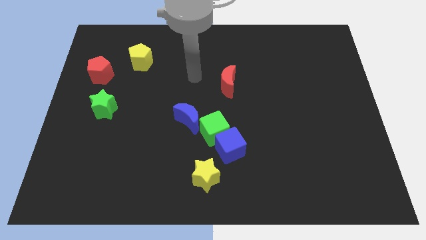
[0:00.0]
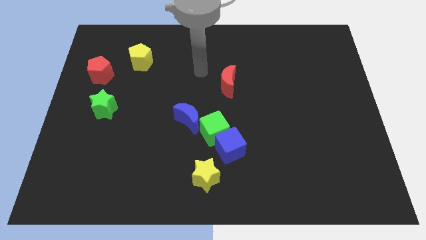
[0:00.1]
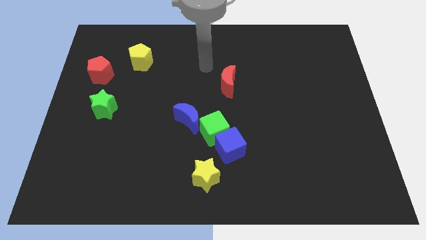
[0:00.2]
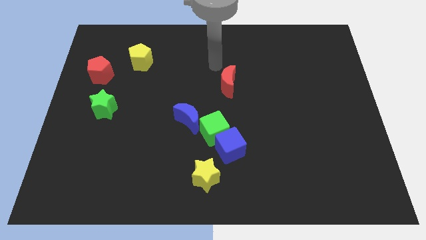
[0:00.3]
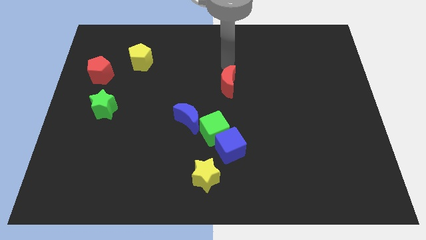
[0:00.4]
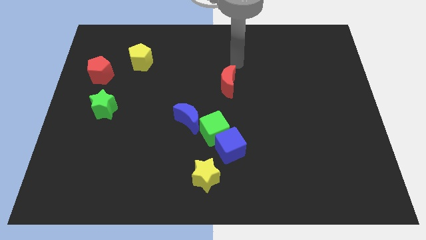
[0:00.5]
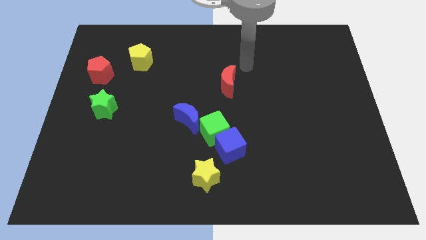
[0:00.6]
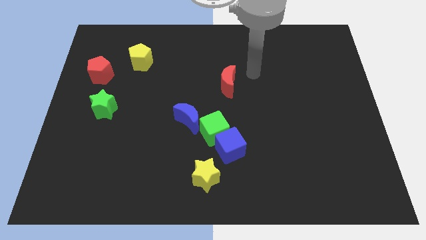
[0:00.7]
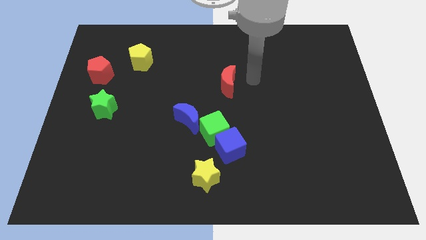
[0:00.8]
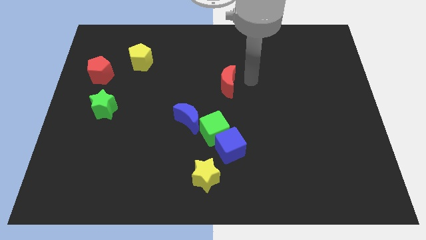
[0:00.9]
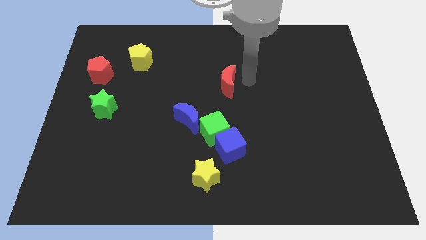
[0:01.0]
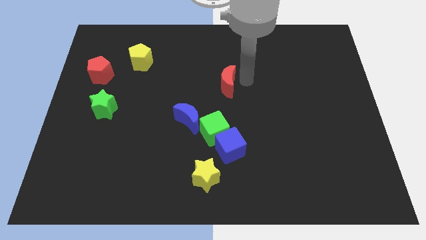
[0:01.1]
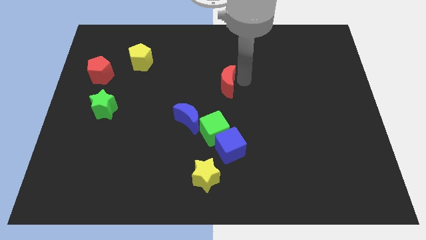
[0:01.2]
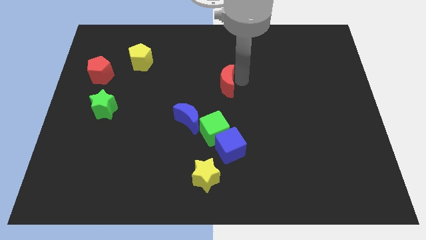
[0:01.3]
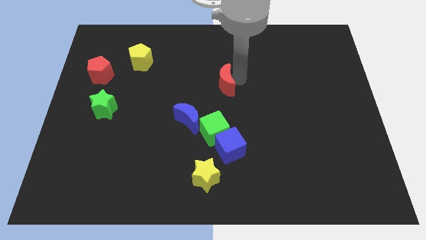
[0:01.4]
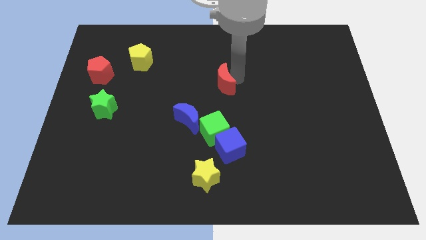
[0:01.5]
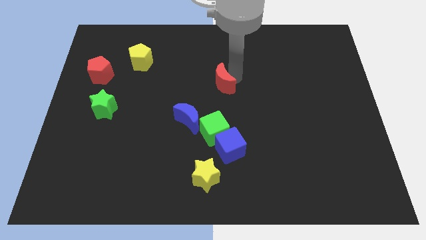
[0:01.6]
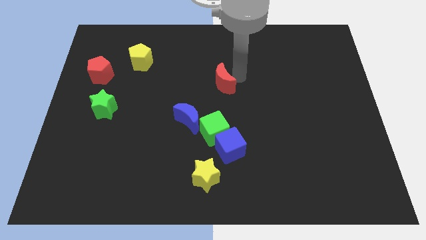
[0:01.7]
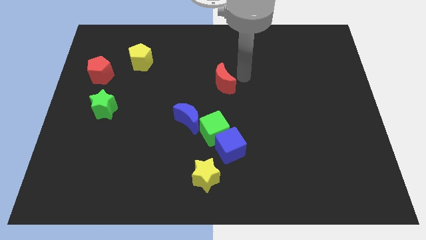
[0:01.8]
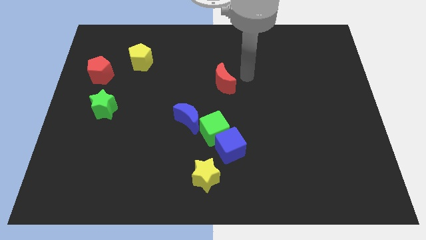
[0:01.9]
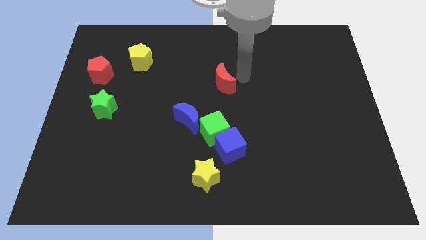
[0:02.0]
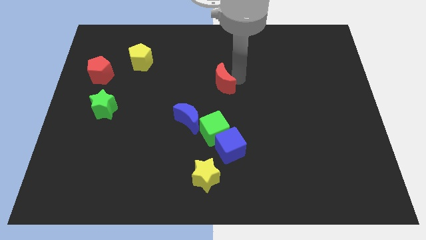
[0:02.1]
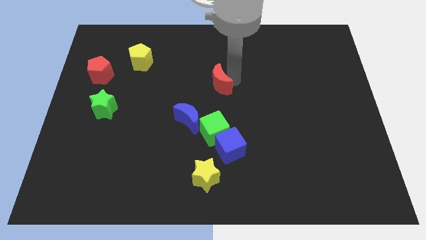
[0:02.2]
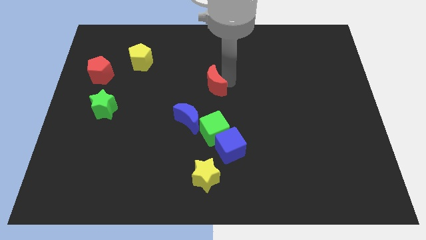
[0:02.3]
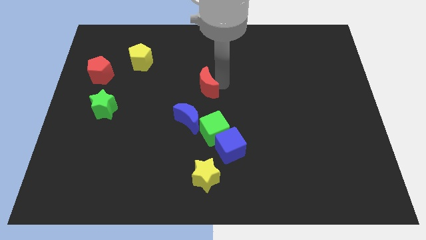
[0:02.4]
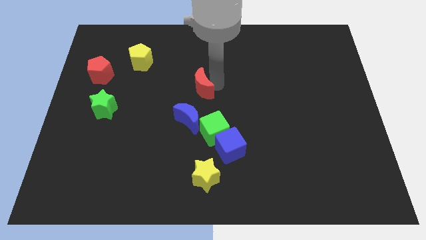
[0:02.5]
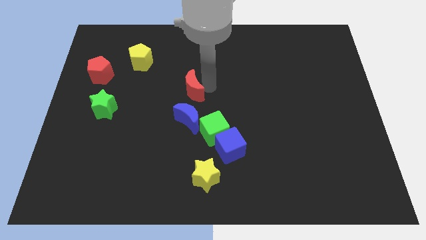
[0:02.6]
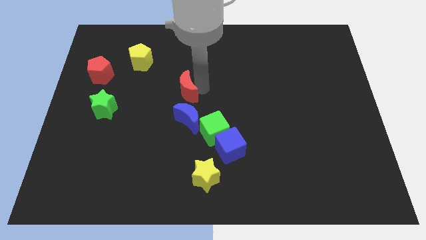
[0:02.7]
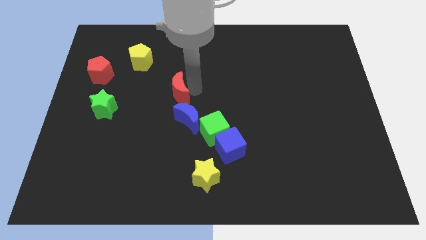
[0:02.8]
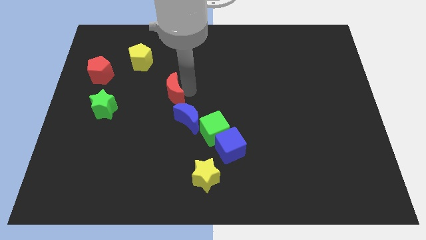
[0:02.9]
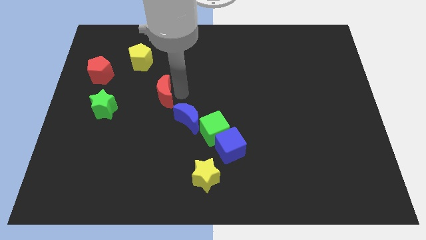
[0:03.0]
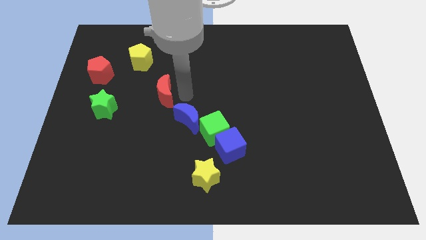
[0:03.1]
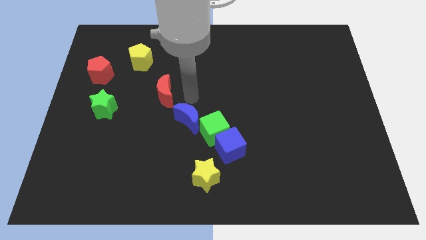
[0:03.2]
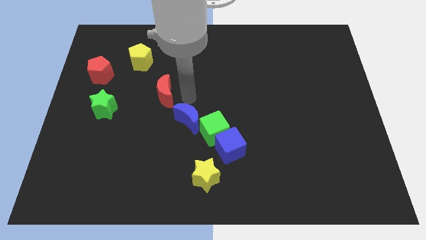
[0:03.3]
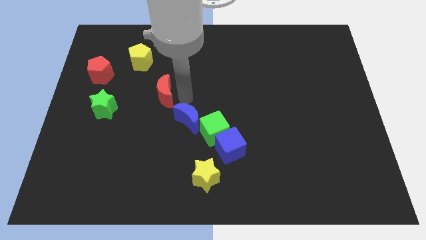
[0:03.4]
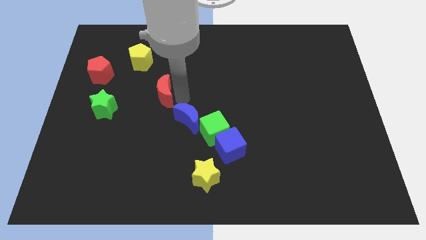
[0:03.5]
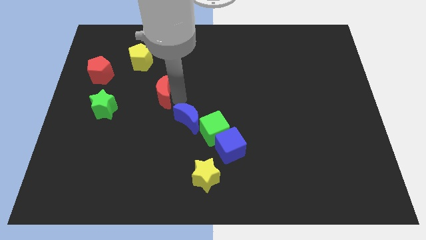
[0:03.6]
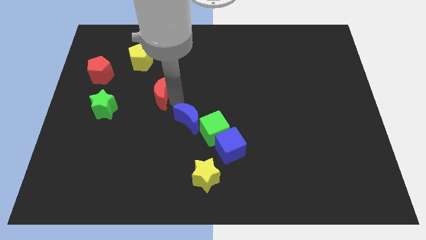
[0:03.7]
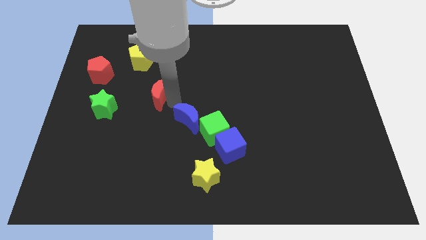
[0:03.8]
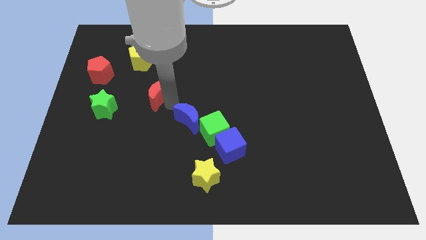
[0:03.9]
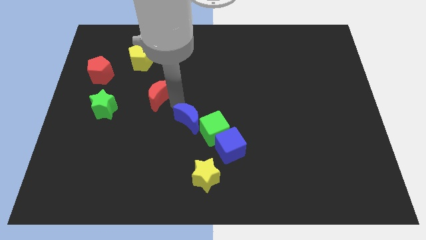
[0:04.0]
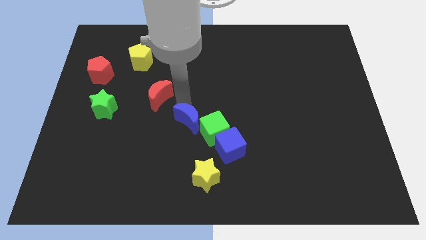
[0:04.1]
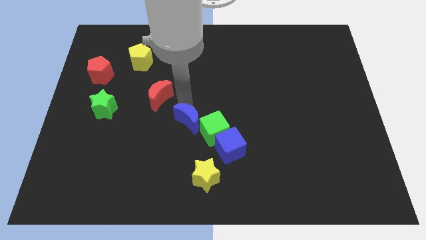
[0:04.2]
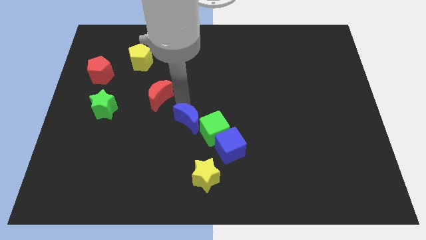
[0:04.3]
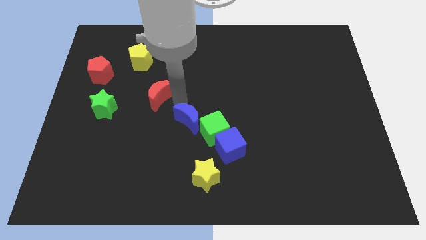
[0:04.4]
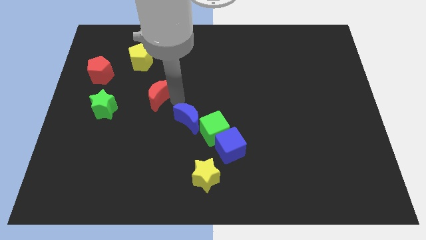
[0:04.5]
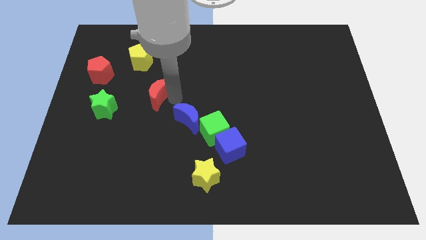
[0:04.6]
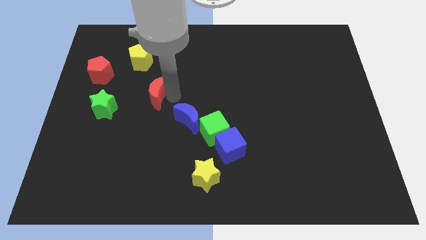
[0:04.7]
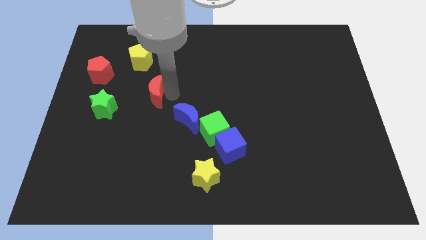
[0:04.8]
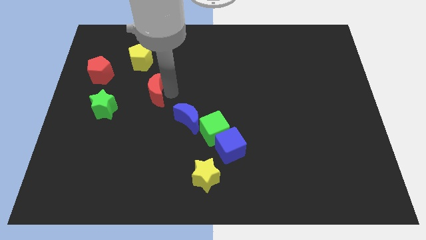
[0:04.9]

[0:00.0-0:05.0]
move the red moon to the bottom of the yellow pentagon

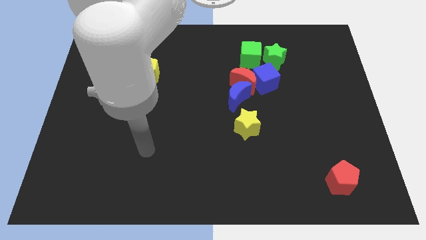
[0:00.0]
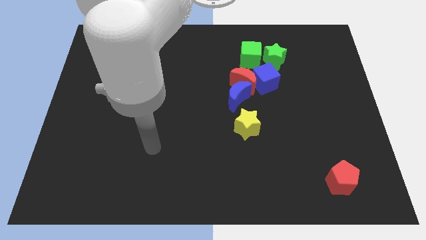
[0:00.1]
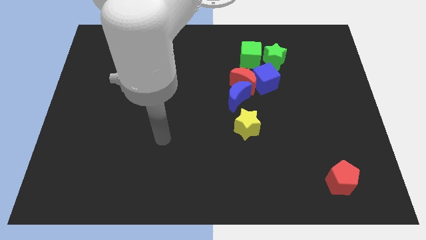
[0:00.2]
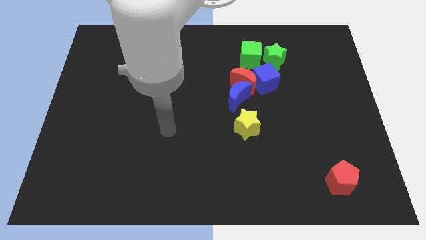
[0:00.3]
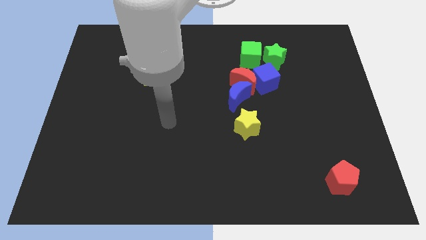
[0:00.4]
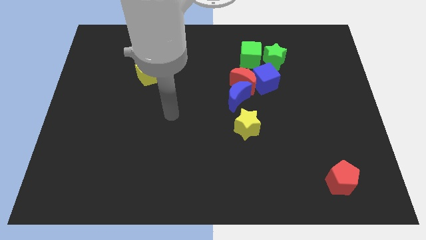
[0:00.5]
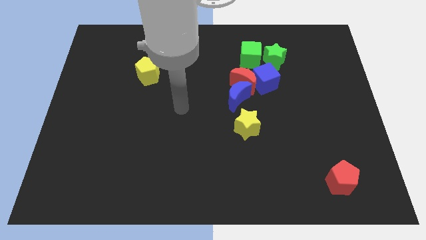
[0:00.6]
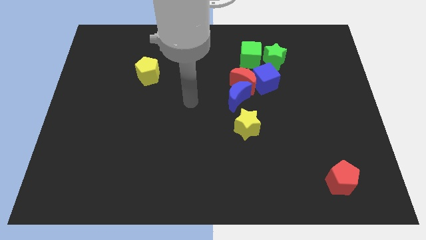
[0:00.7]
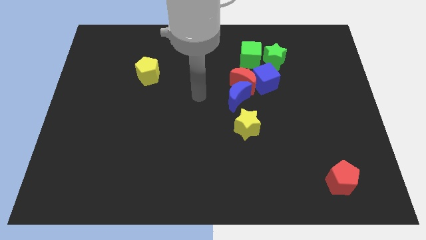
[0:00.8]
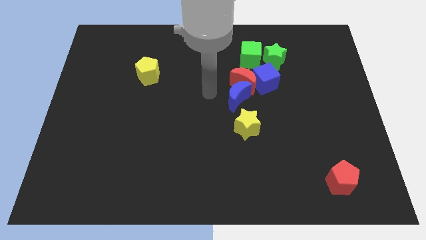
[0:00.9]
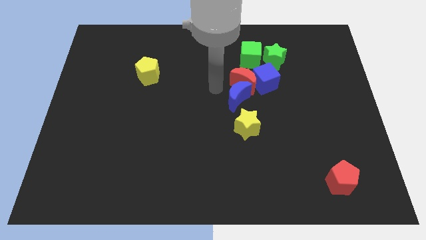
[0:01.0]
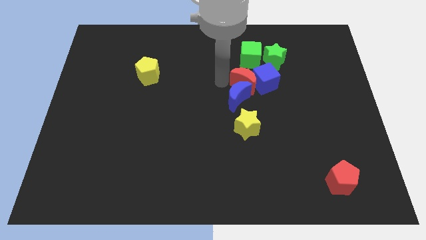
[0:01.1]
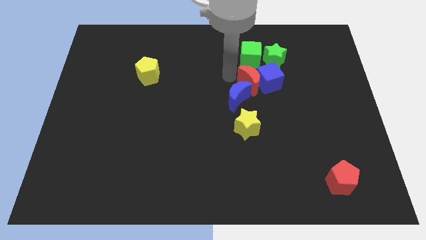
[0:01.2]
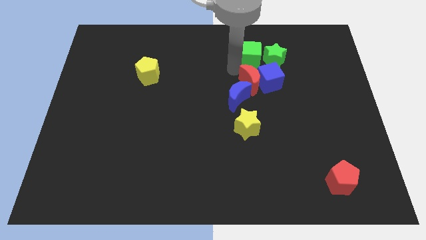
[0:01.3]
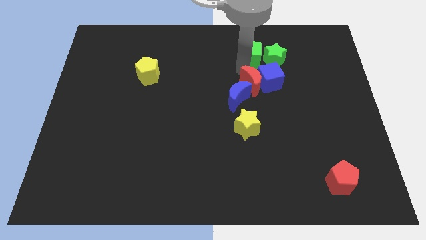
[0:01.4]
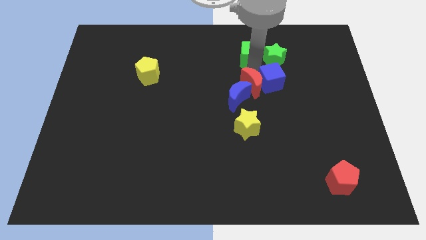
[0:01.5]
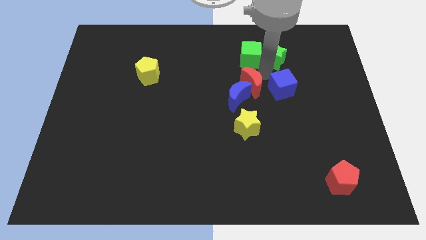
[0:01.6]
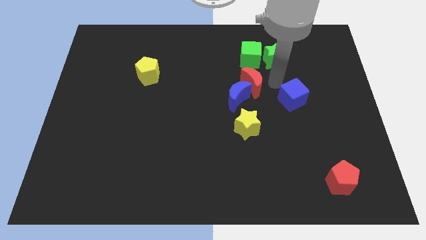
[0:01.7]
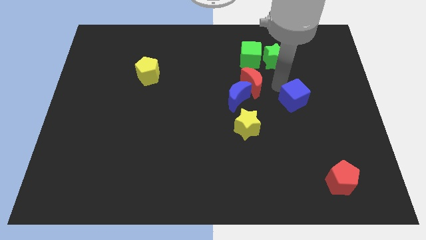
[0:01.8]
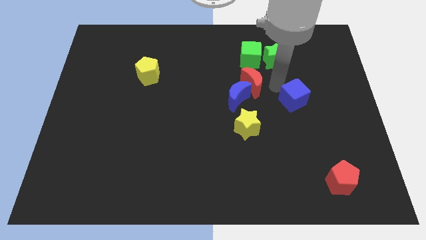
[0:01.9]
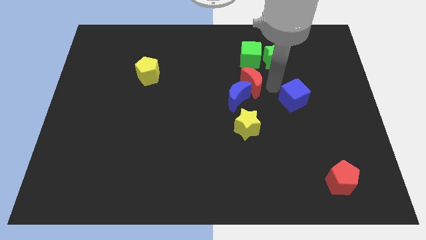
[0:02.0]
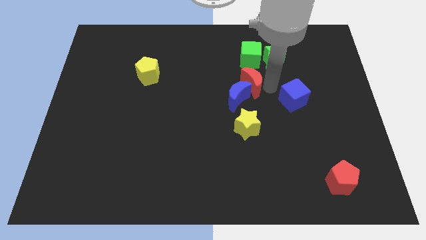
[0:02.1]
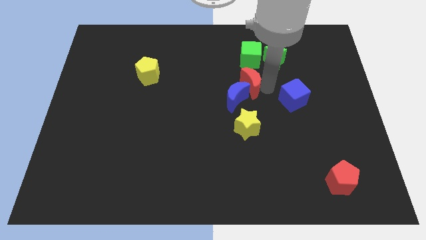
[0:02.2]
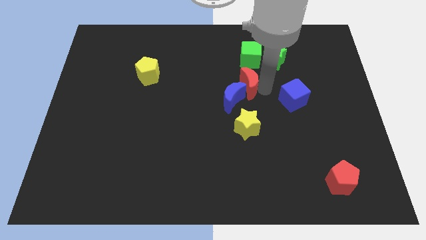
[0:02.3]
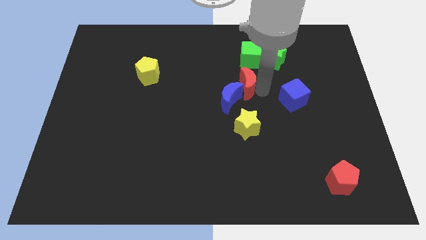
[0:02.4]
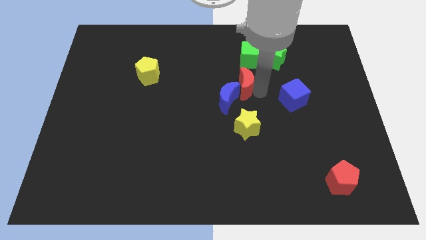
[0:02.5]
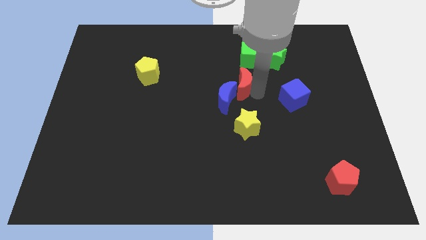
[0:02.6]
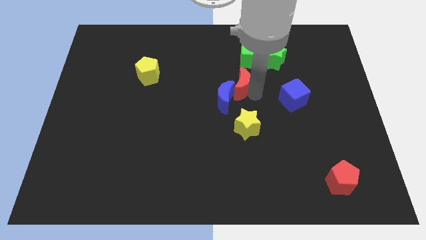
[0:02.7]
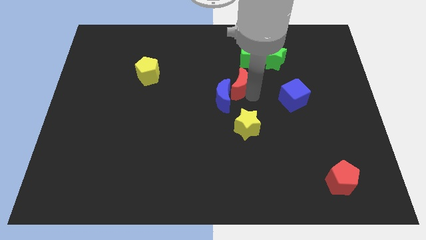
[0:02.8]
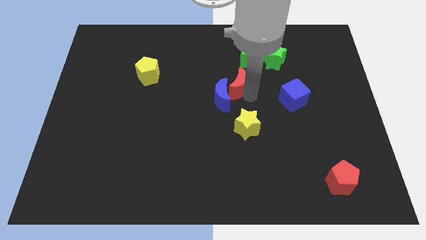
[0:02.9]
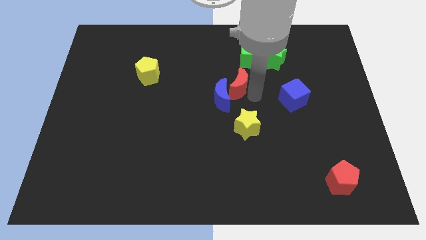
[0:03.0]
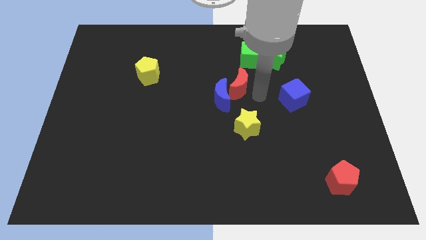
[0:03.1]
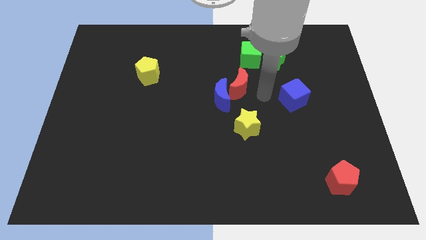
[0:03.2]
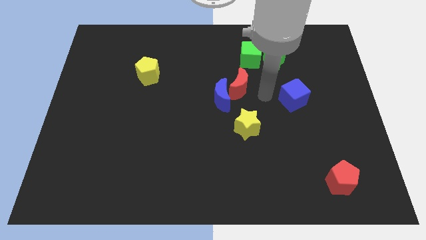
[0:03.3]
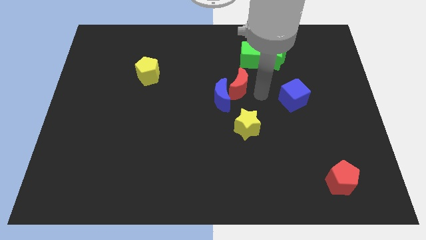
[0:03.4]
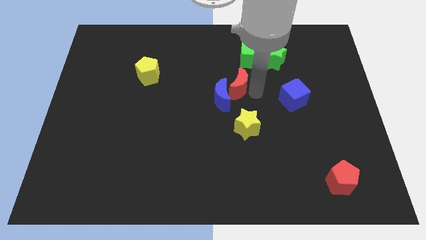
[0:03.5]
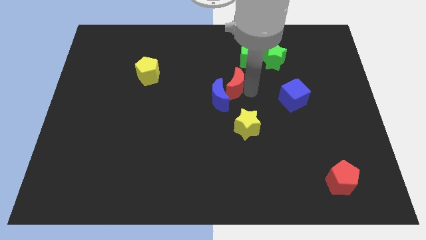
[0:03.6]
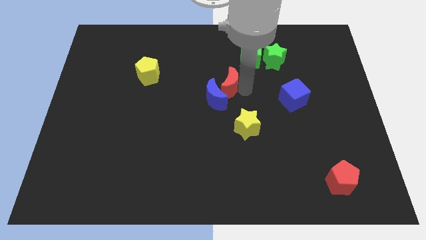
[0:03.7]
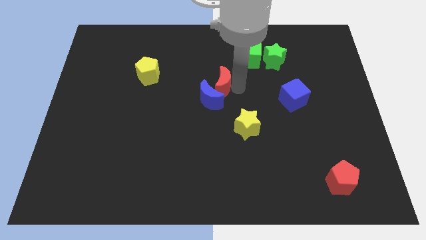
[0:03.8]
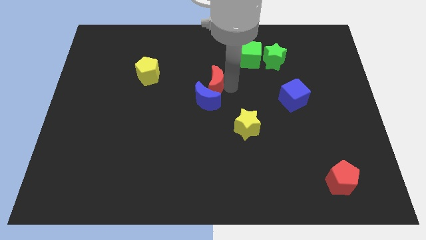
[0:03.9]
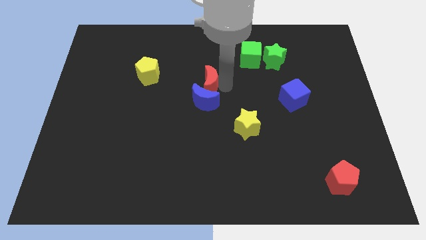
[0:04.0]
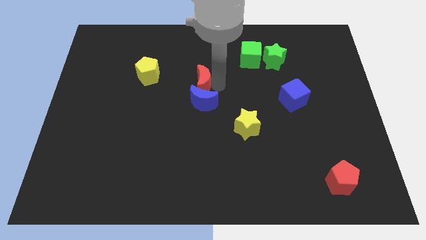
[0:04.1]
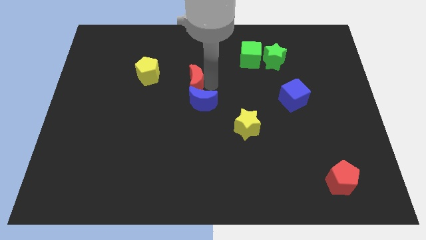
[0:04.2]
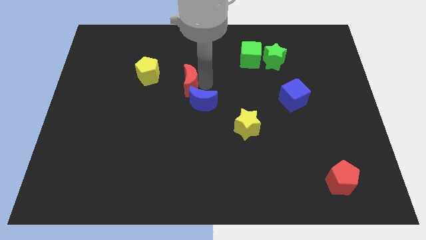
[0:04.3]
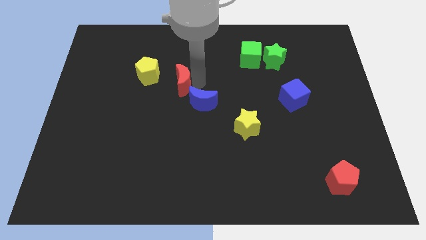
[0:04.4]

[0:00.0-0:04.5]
put the red moon diagonally down and to the right of the yellow pentagon
